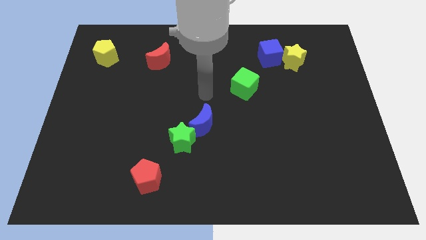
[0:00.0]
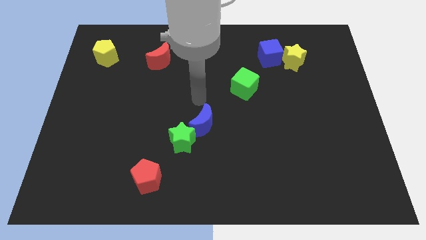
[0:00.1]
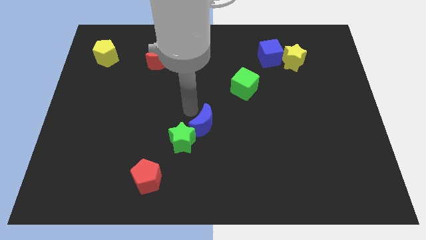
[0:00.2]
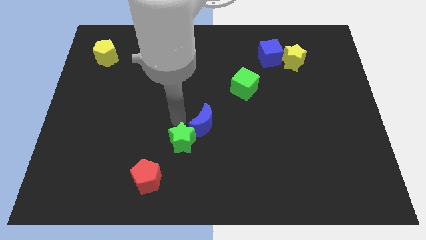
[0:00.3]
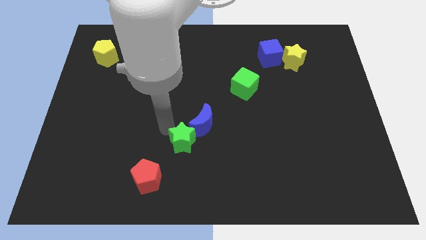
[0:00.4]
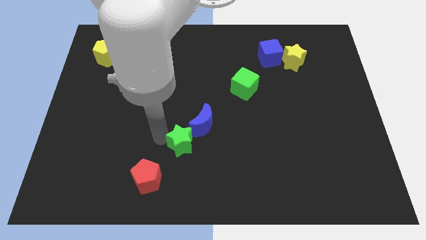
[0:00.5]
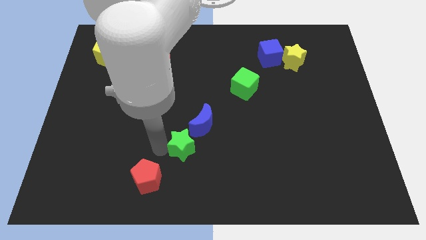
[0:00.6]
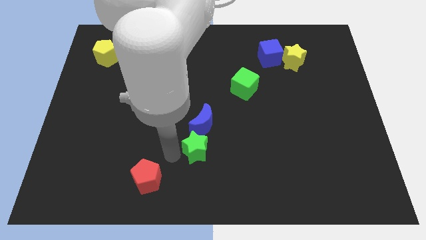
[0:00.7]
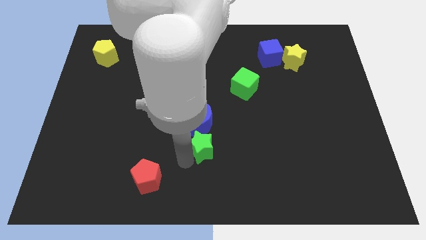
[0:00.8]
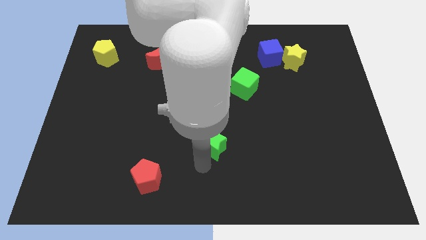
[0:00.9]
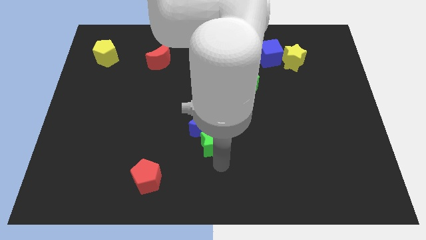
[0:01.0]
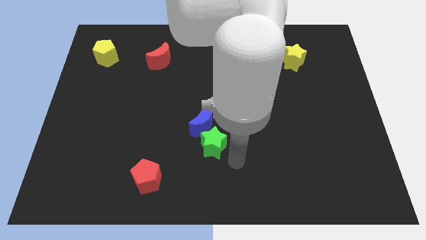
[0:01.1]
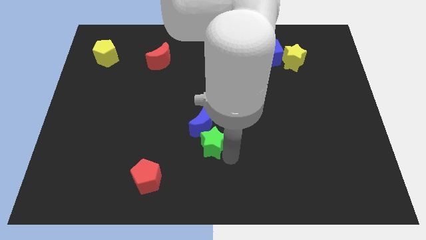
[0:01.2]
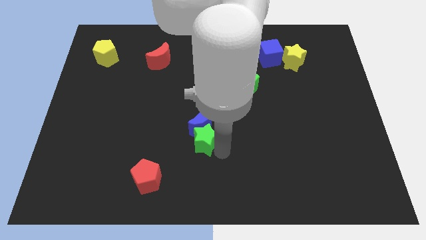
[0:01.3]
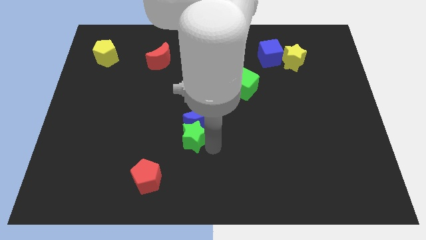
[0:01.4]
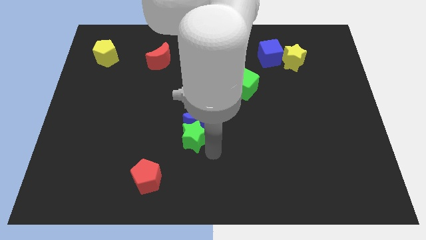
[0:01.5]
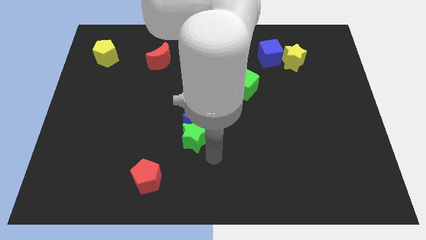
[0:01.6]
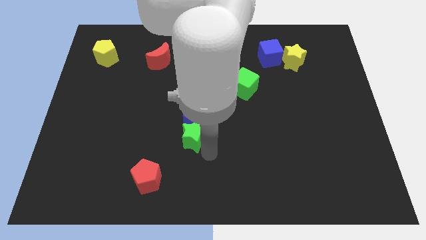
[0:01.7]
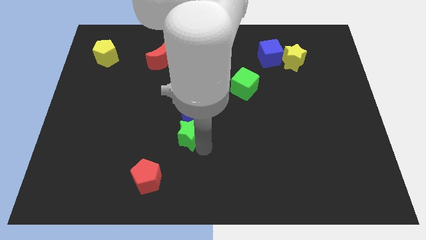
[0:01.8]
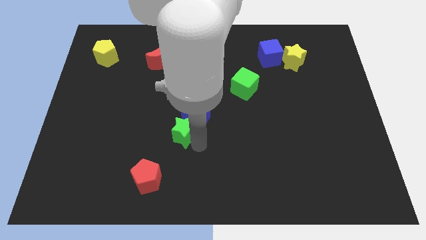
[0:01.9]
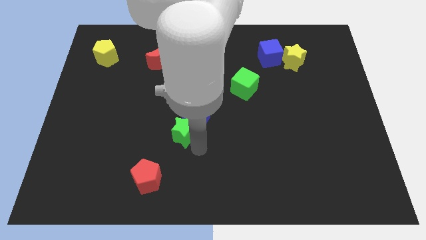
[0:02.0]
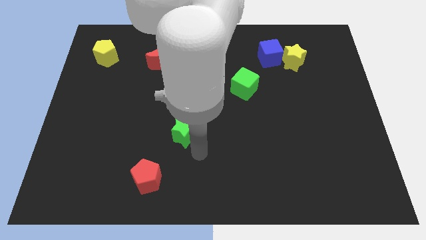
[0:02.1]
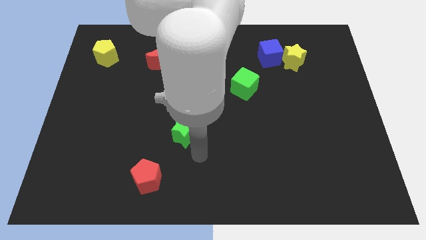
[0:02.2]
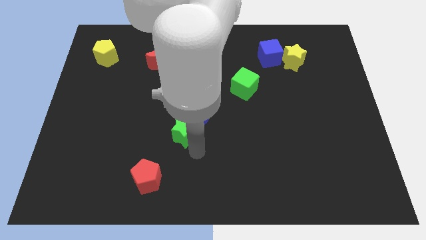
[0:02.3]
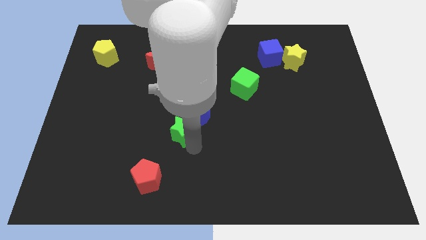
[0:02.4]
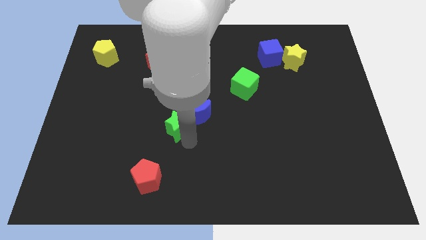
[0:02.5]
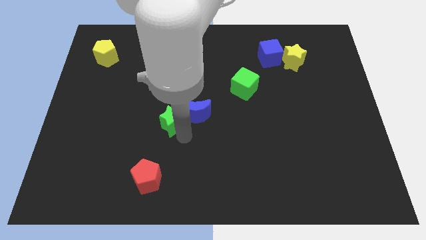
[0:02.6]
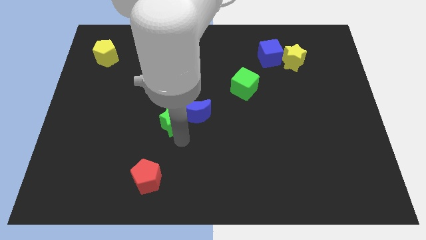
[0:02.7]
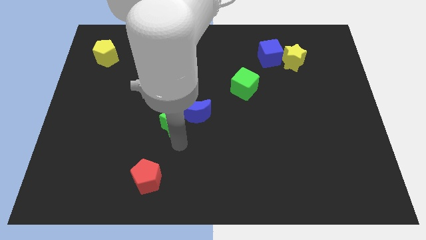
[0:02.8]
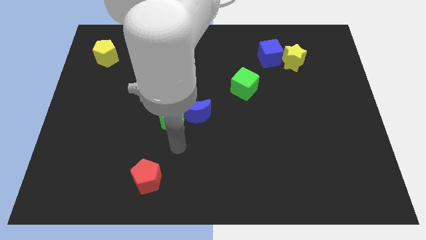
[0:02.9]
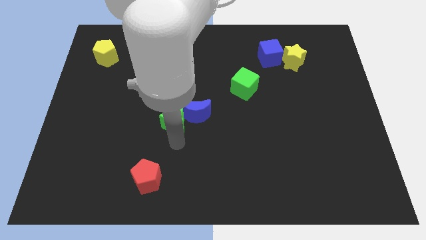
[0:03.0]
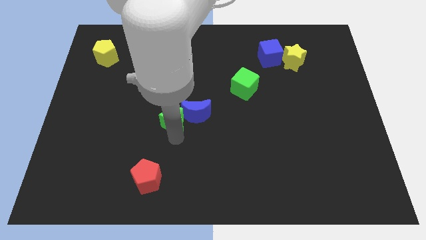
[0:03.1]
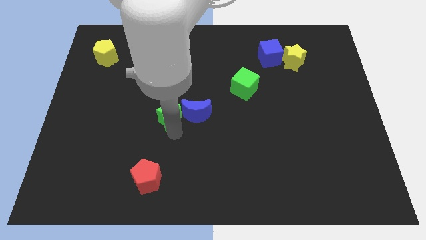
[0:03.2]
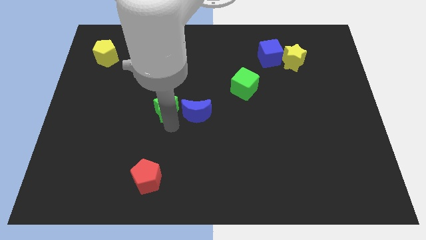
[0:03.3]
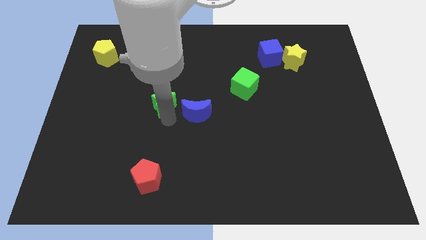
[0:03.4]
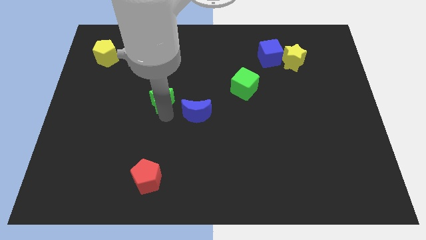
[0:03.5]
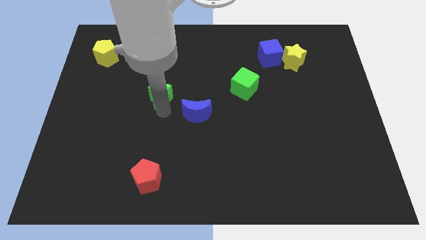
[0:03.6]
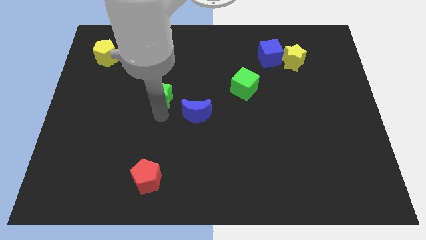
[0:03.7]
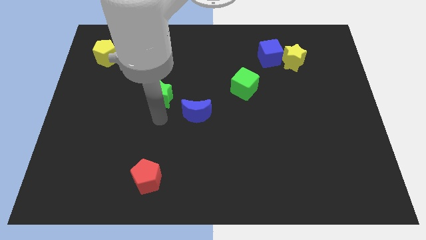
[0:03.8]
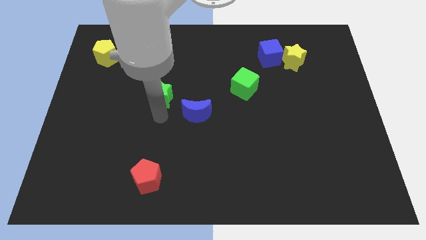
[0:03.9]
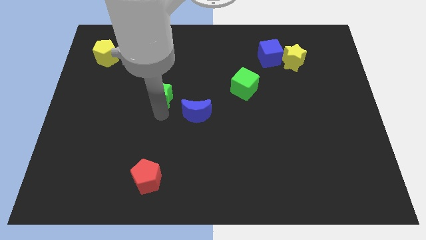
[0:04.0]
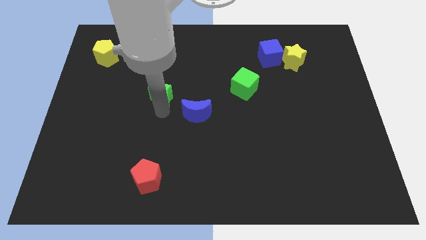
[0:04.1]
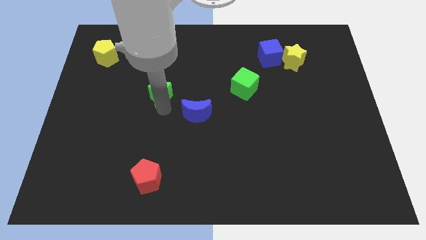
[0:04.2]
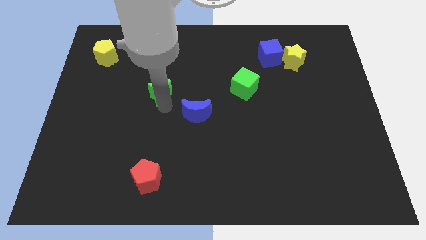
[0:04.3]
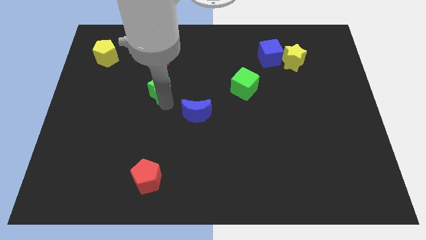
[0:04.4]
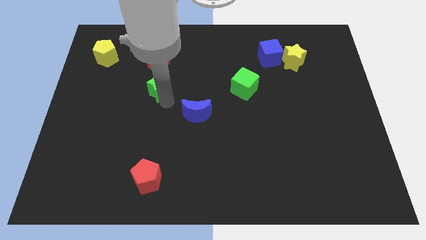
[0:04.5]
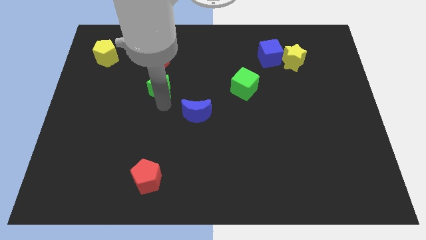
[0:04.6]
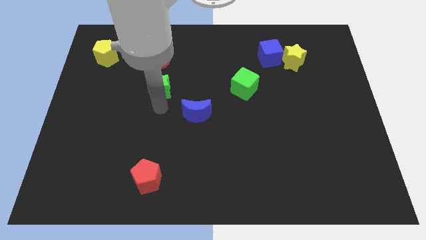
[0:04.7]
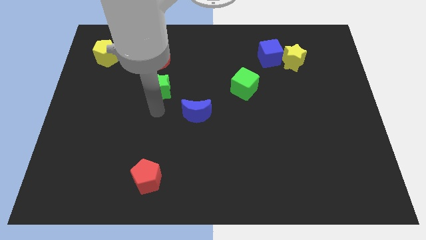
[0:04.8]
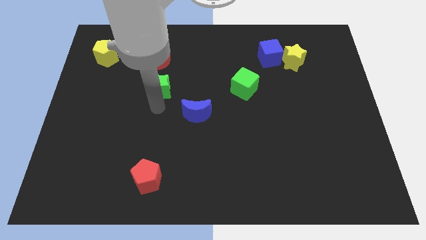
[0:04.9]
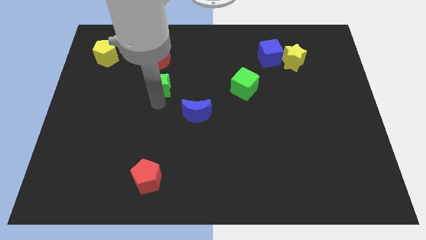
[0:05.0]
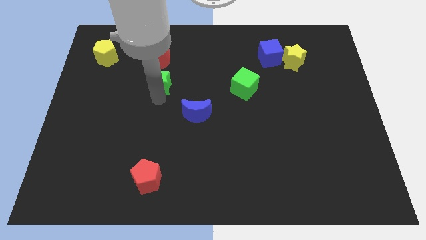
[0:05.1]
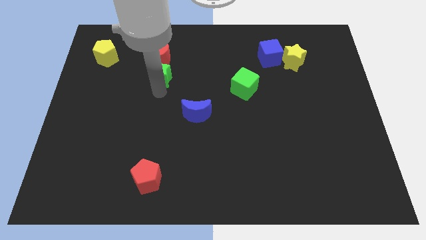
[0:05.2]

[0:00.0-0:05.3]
slide the green star next to the red moon

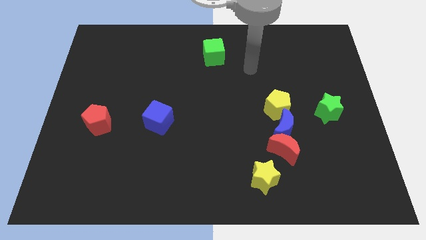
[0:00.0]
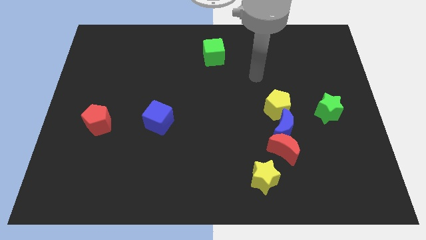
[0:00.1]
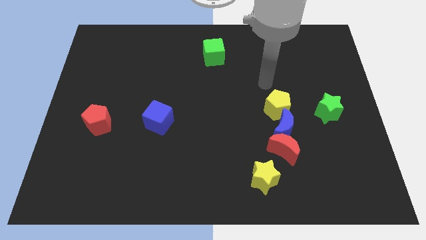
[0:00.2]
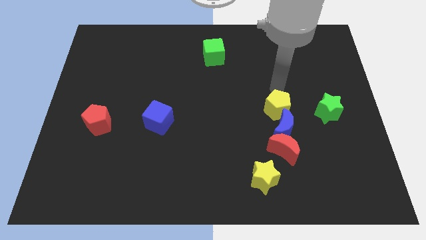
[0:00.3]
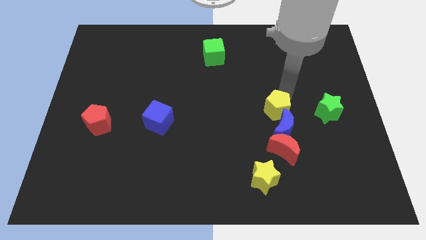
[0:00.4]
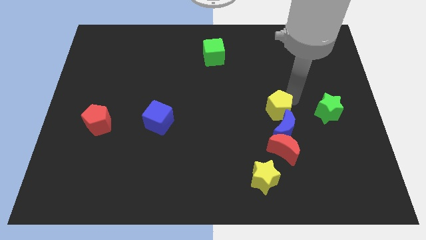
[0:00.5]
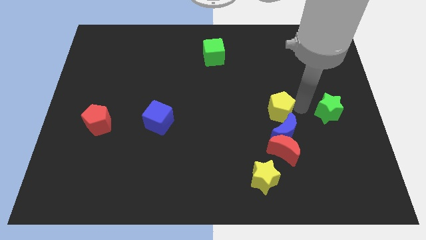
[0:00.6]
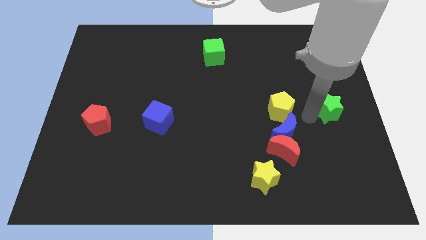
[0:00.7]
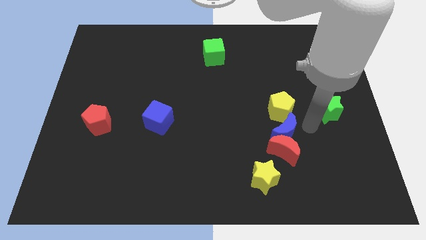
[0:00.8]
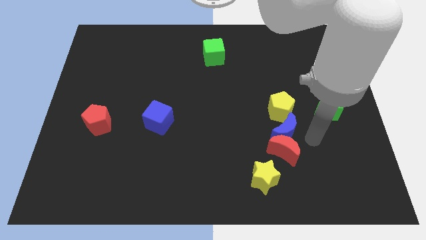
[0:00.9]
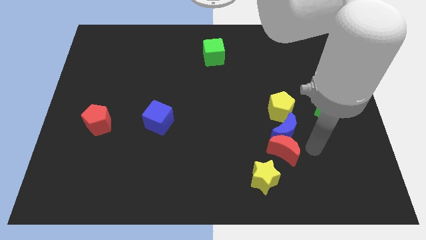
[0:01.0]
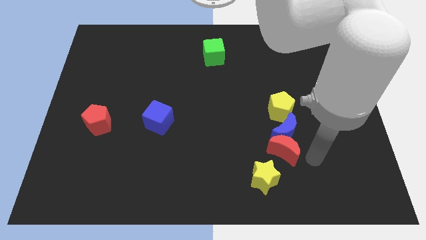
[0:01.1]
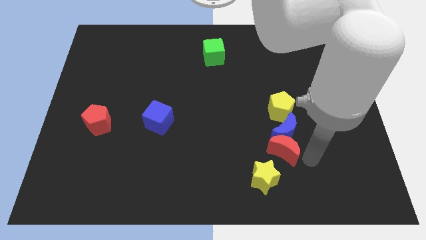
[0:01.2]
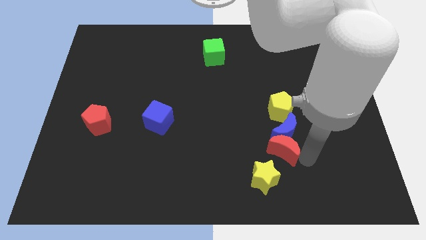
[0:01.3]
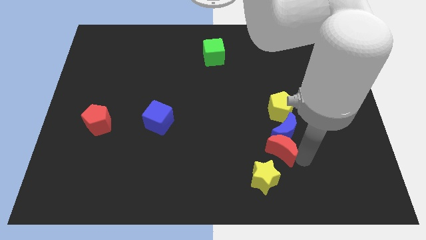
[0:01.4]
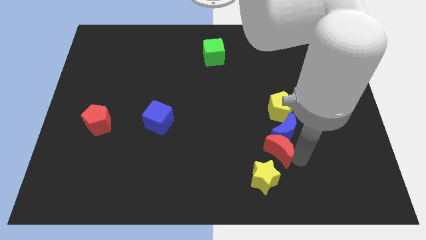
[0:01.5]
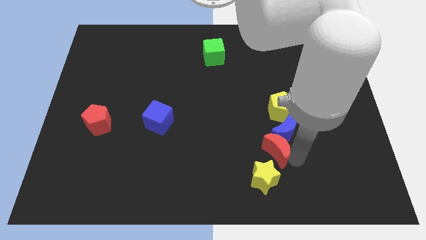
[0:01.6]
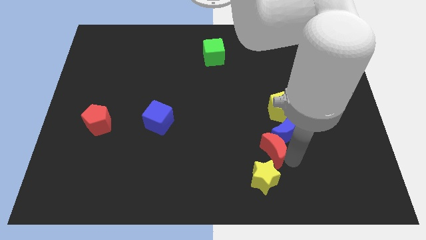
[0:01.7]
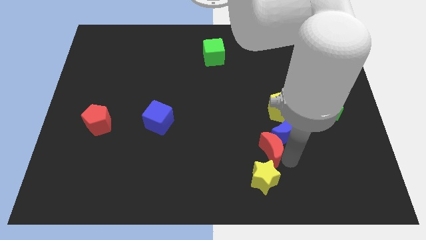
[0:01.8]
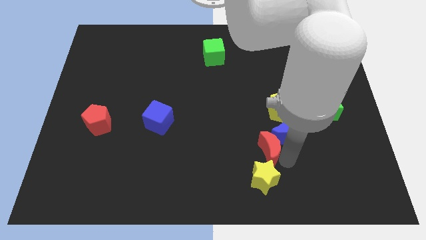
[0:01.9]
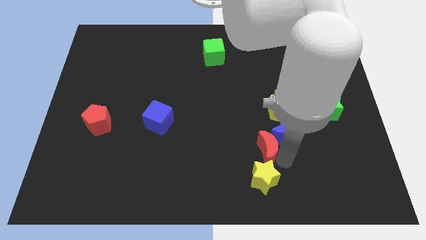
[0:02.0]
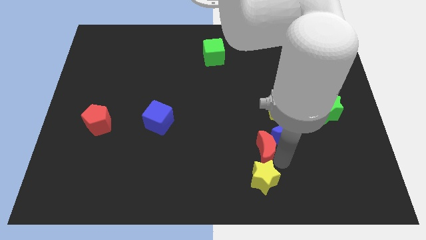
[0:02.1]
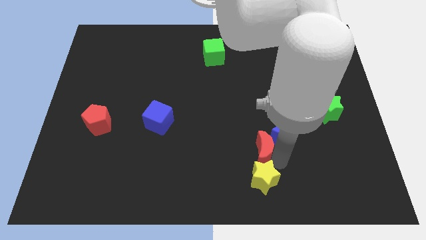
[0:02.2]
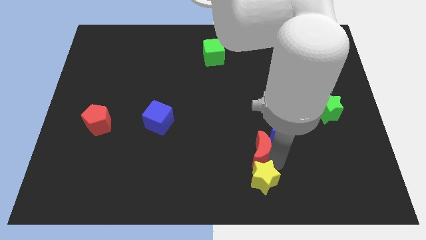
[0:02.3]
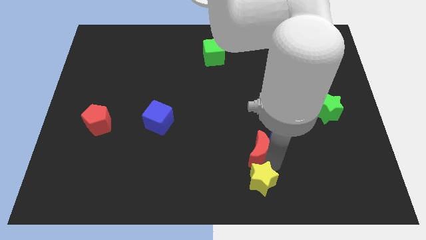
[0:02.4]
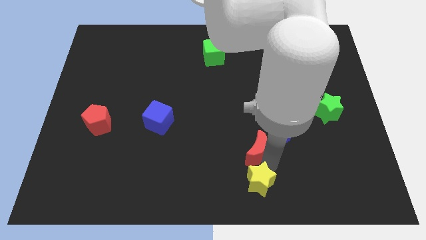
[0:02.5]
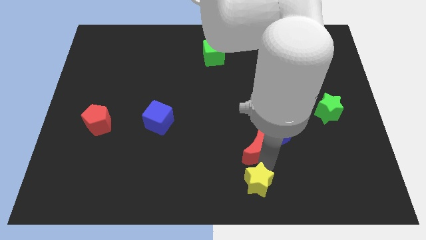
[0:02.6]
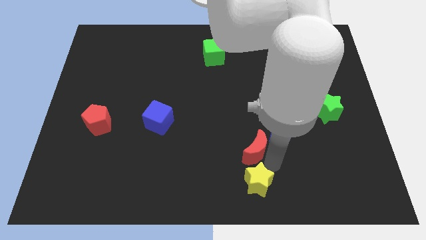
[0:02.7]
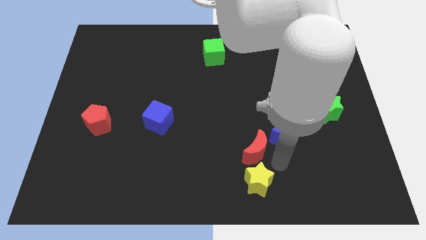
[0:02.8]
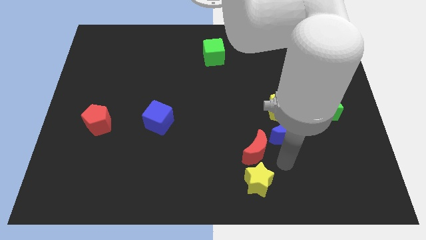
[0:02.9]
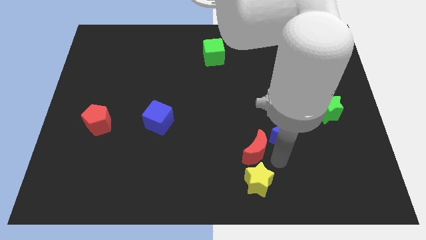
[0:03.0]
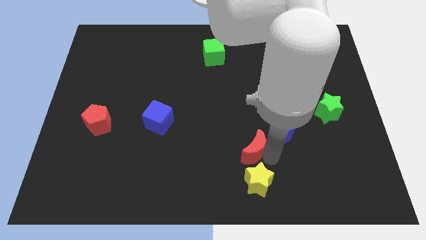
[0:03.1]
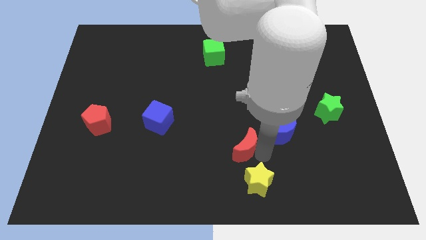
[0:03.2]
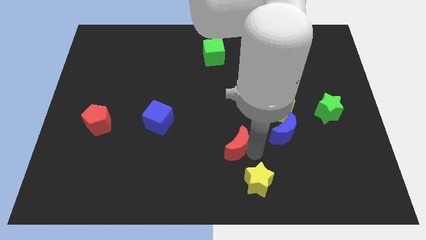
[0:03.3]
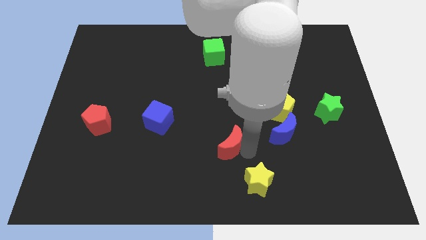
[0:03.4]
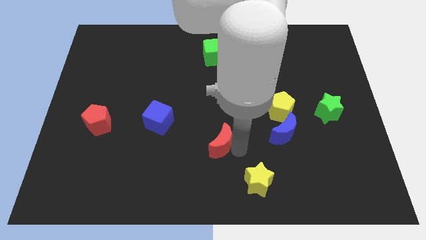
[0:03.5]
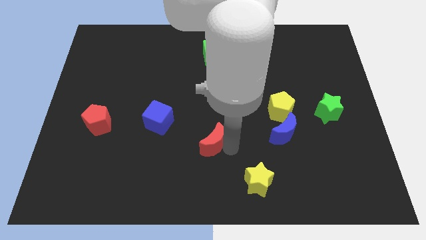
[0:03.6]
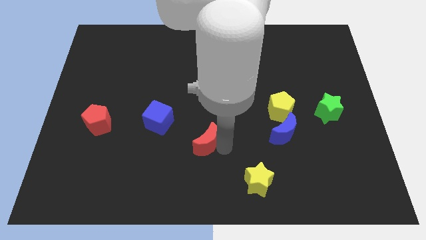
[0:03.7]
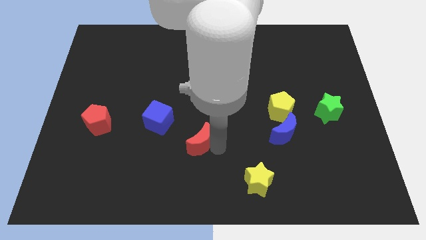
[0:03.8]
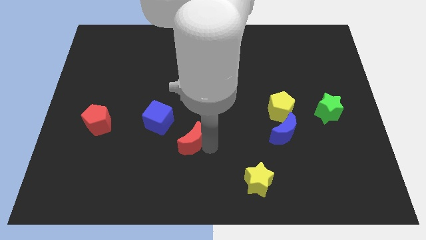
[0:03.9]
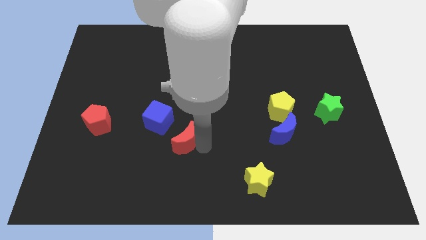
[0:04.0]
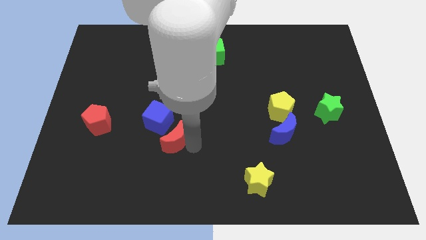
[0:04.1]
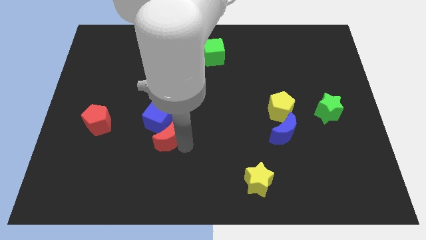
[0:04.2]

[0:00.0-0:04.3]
push the red moon close to the blue cube
